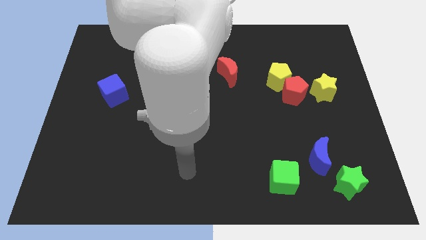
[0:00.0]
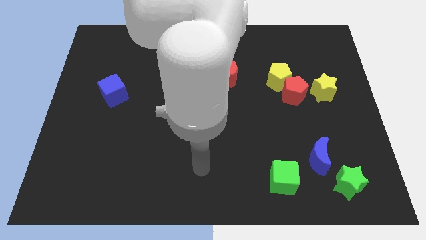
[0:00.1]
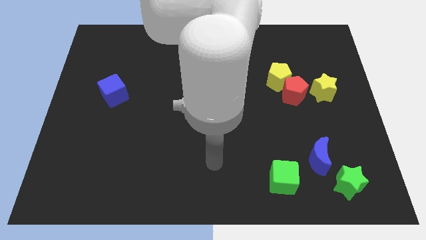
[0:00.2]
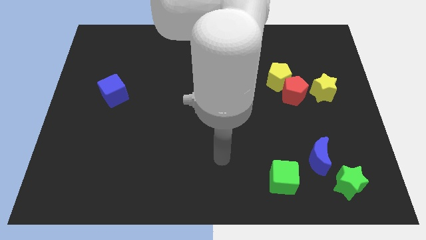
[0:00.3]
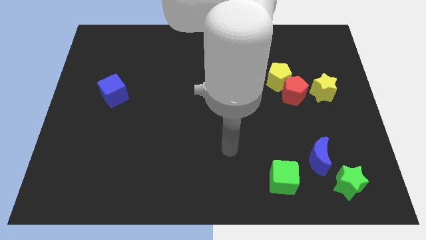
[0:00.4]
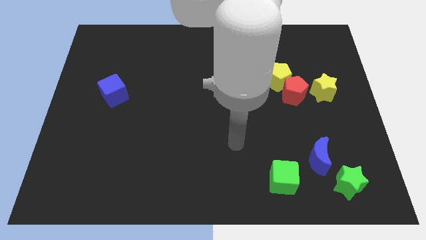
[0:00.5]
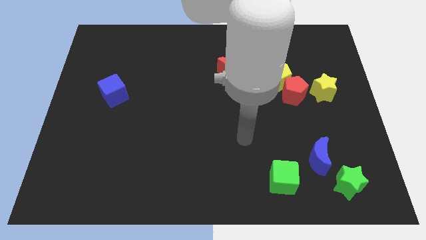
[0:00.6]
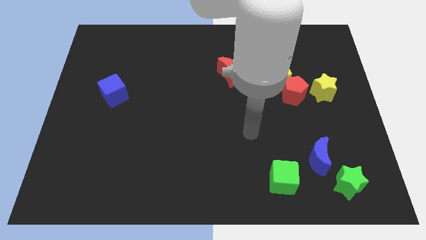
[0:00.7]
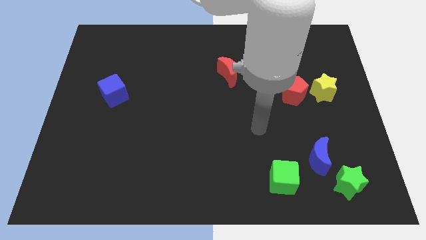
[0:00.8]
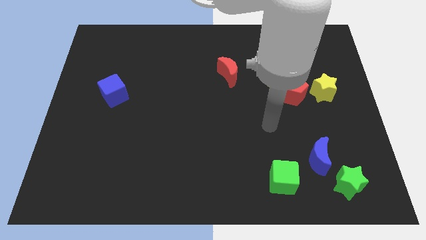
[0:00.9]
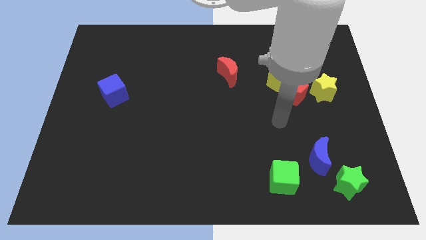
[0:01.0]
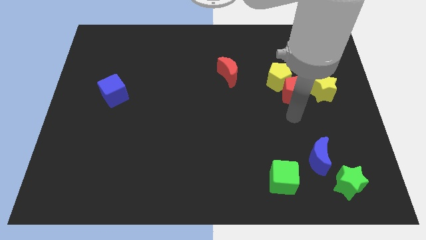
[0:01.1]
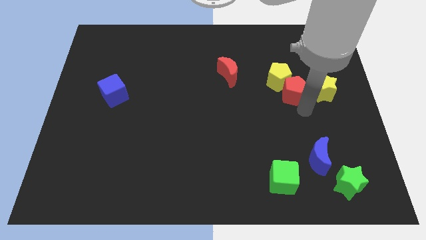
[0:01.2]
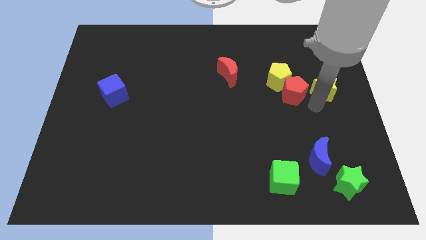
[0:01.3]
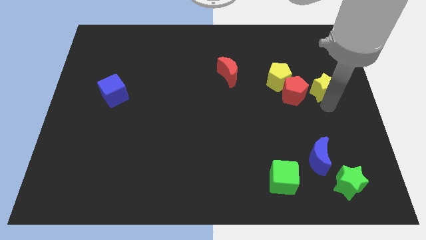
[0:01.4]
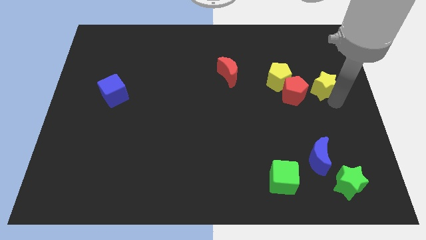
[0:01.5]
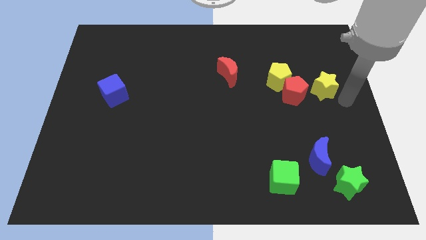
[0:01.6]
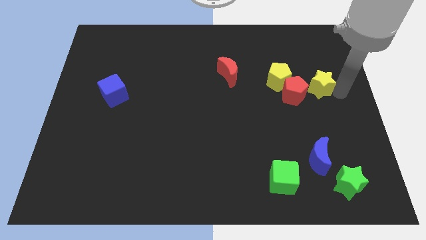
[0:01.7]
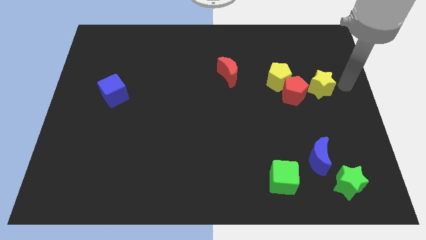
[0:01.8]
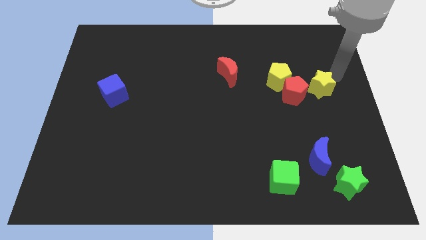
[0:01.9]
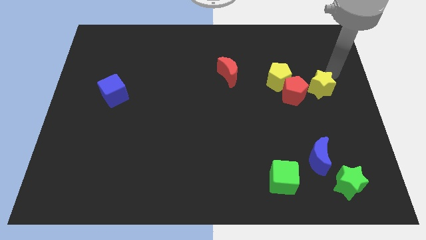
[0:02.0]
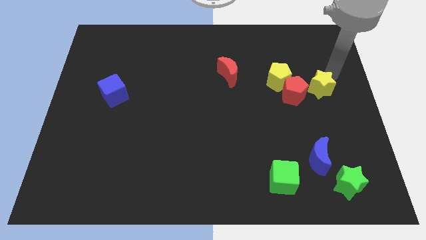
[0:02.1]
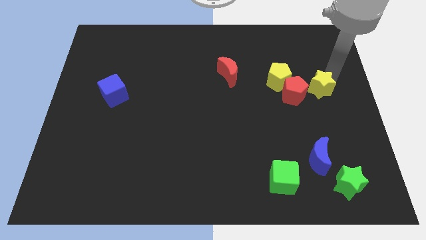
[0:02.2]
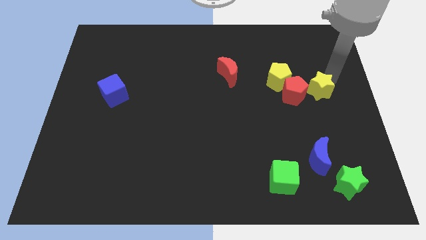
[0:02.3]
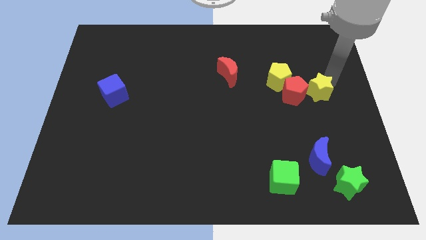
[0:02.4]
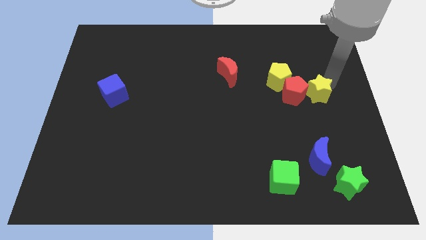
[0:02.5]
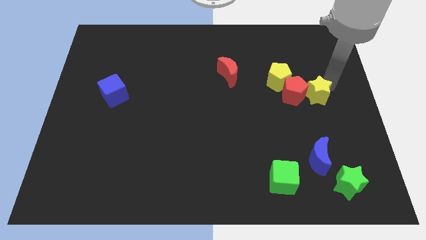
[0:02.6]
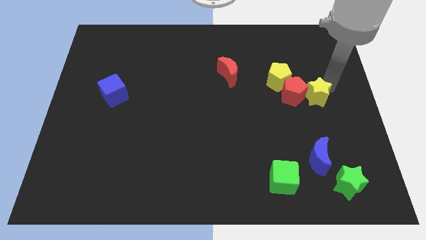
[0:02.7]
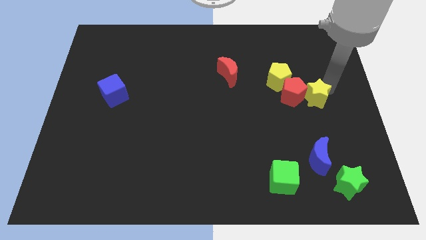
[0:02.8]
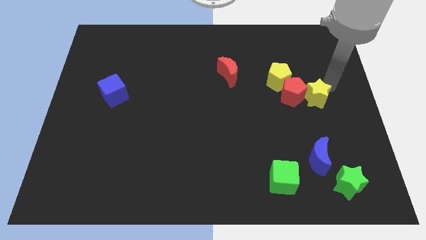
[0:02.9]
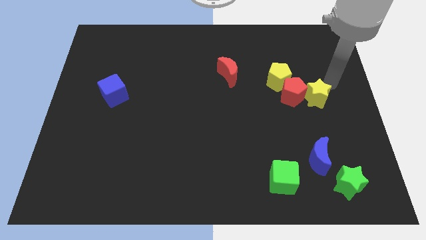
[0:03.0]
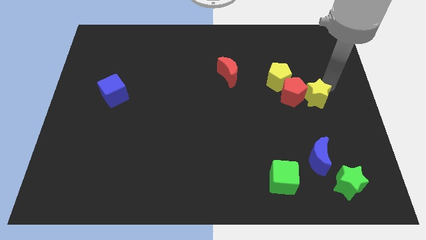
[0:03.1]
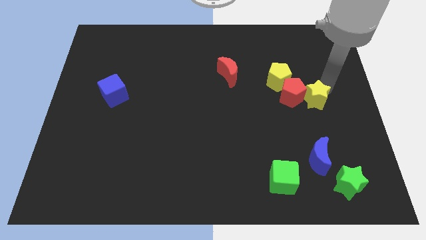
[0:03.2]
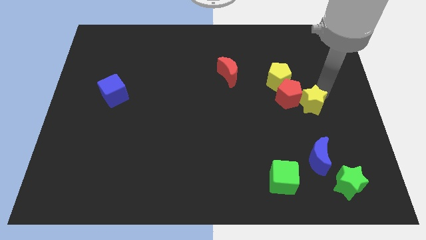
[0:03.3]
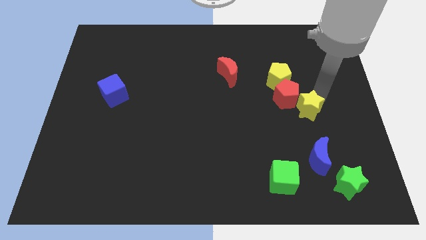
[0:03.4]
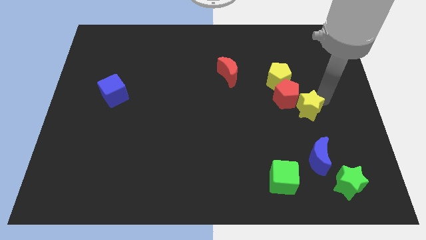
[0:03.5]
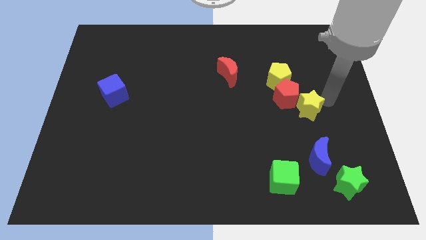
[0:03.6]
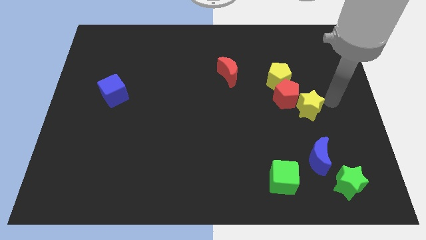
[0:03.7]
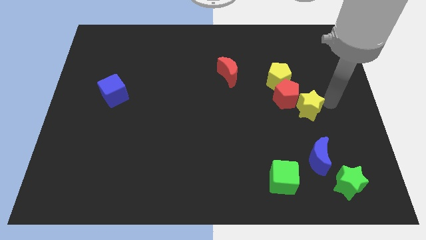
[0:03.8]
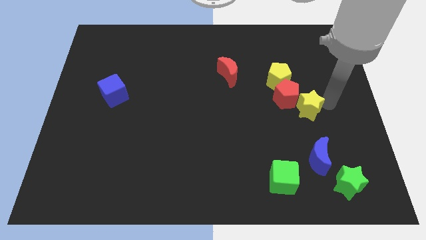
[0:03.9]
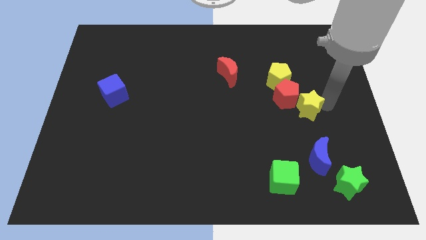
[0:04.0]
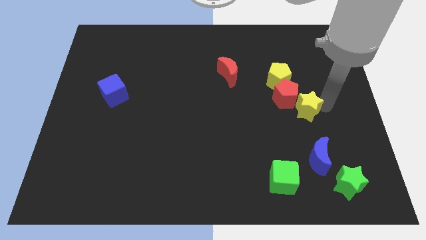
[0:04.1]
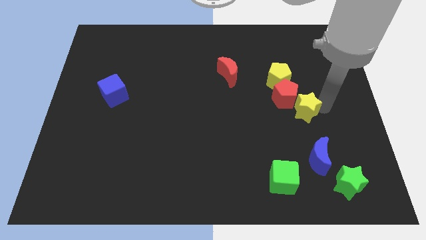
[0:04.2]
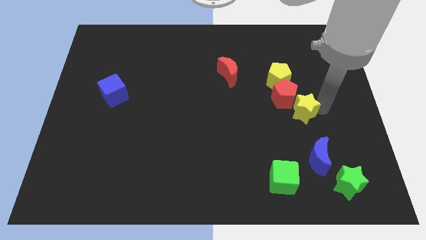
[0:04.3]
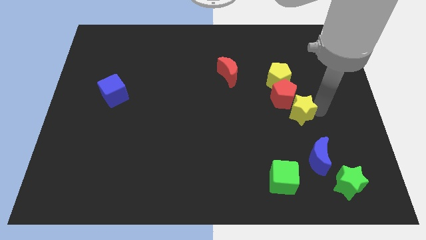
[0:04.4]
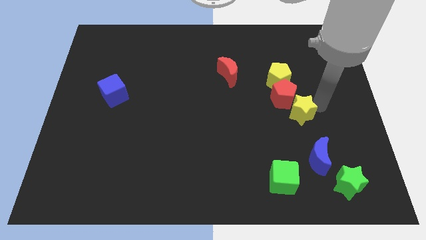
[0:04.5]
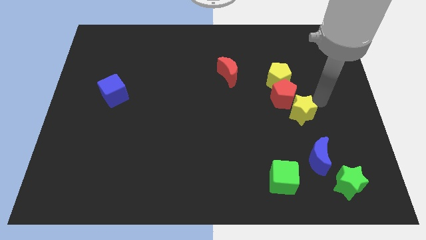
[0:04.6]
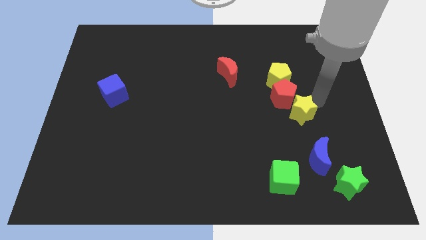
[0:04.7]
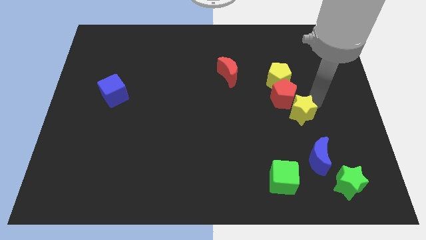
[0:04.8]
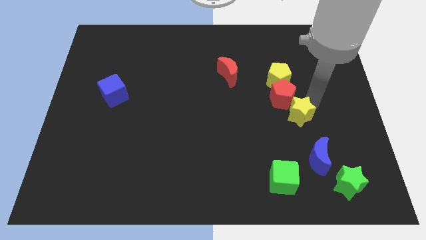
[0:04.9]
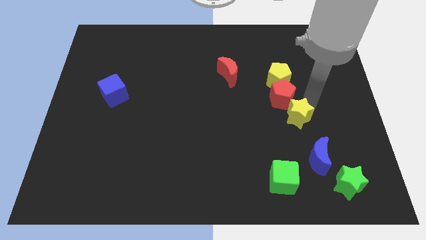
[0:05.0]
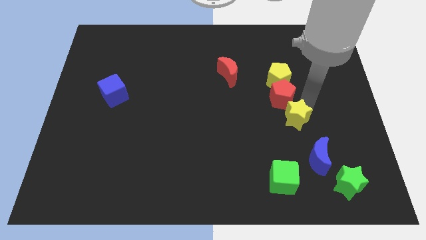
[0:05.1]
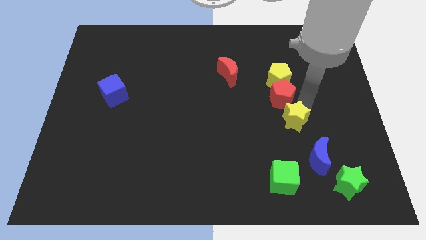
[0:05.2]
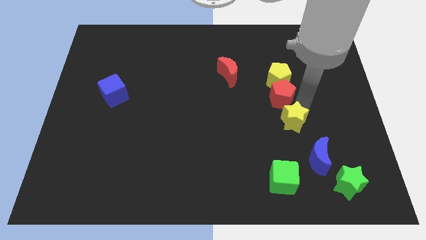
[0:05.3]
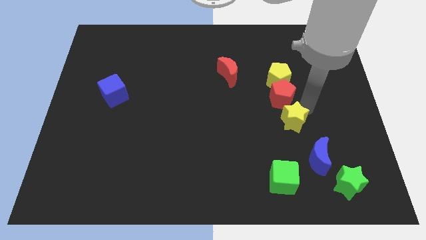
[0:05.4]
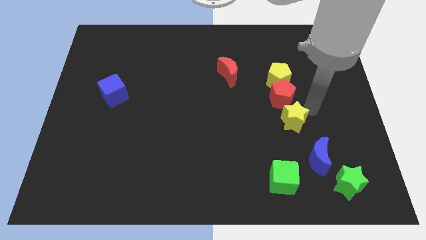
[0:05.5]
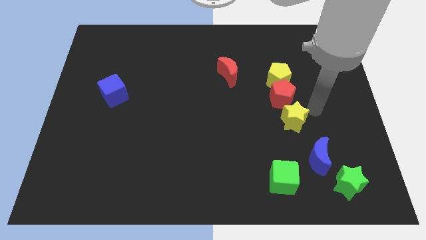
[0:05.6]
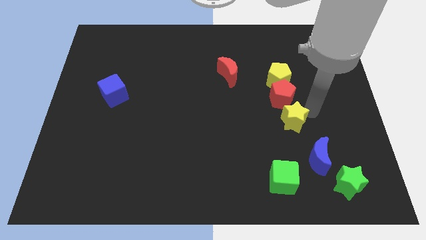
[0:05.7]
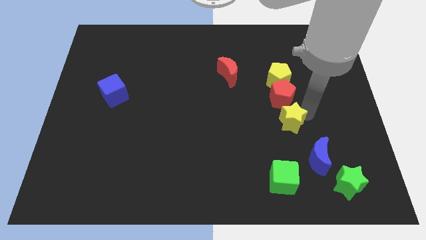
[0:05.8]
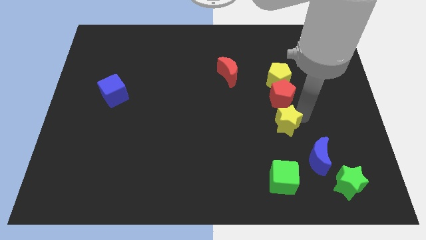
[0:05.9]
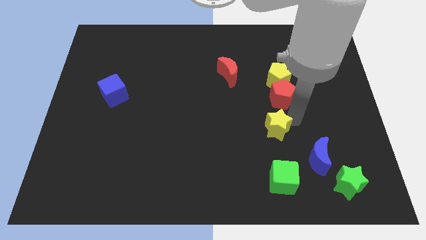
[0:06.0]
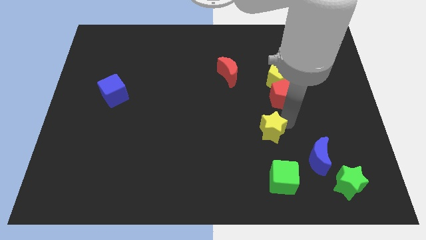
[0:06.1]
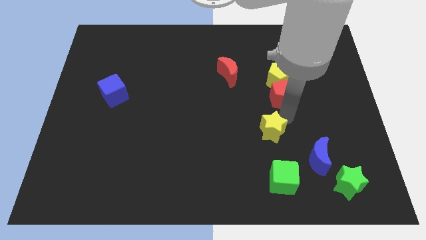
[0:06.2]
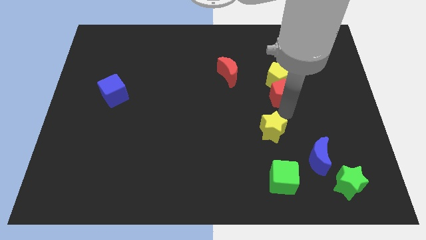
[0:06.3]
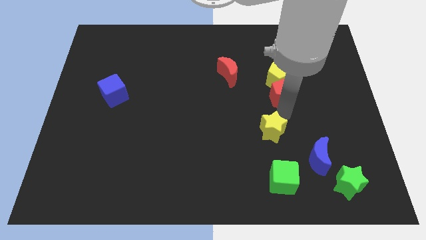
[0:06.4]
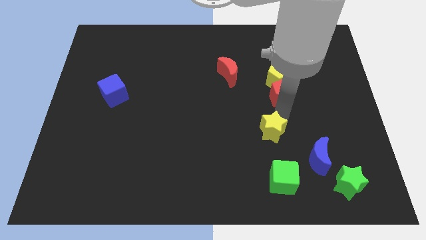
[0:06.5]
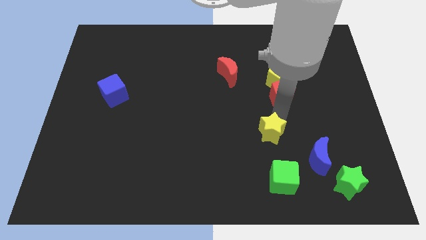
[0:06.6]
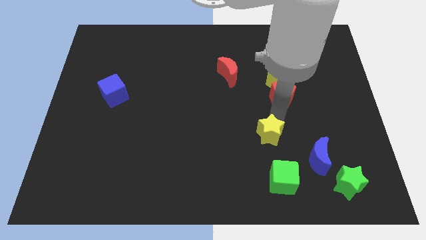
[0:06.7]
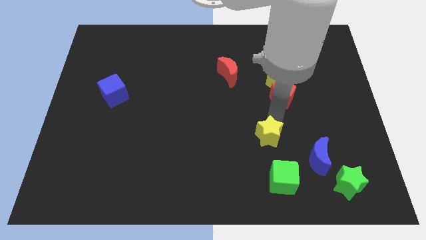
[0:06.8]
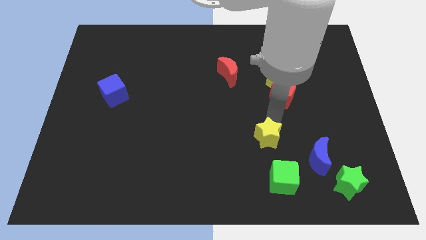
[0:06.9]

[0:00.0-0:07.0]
push the yellow star down and then to the left

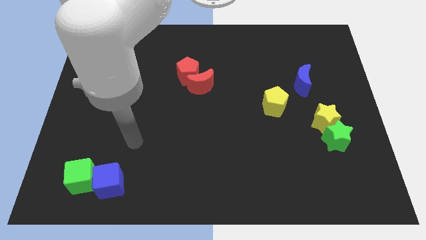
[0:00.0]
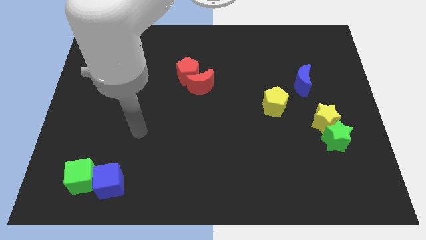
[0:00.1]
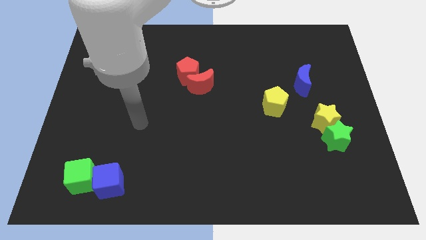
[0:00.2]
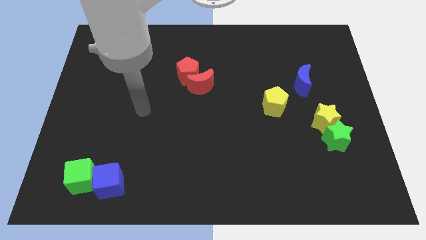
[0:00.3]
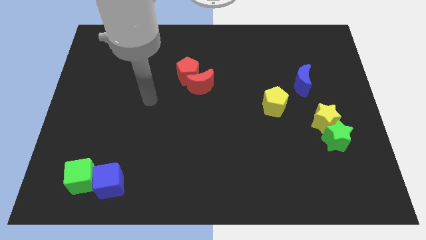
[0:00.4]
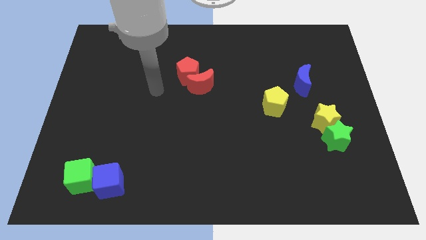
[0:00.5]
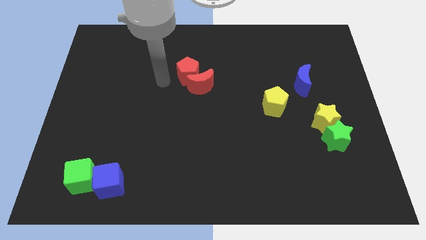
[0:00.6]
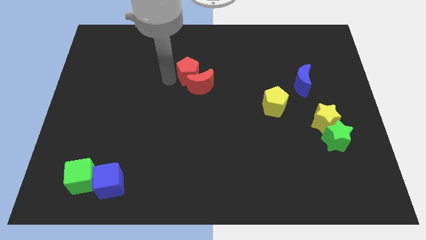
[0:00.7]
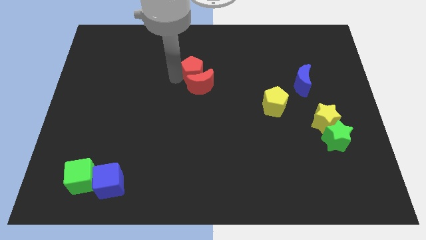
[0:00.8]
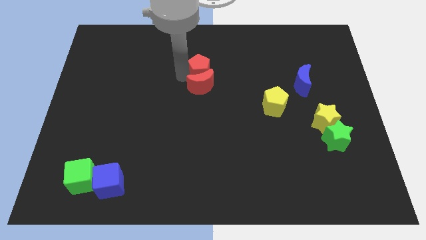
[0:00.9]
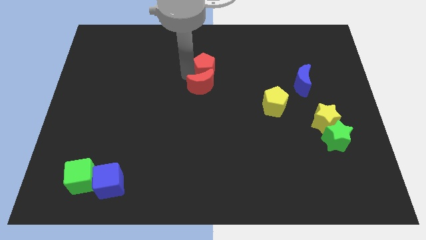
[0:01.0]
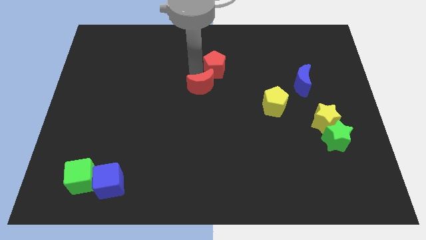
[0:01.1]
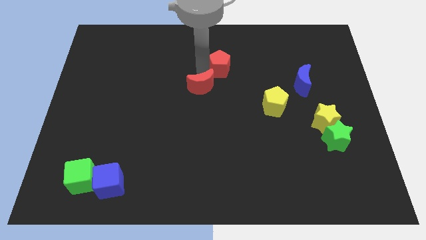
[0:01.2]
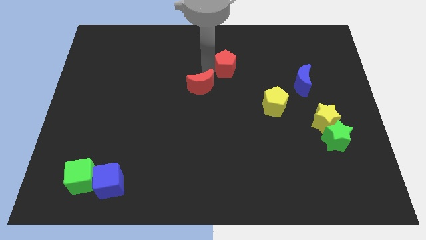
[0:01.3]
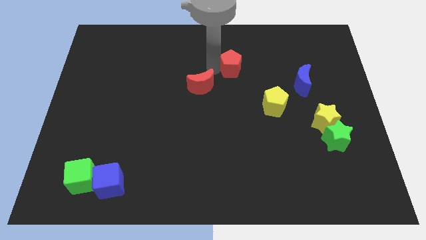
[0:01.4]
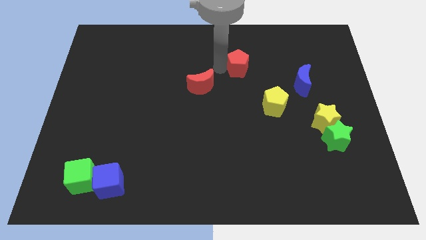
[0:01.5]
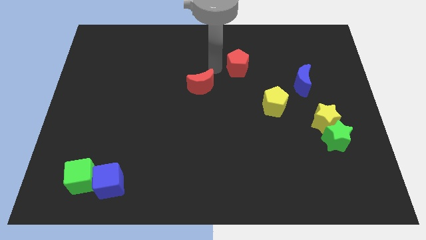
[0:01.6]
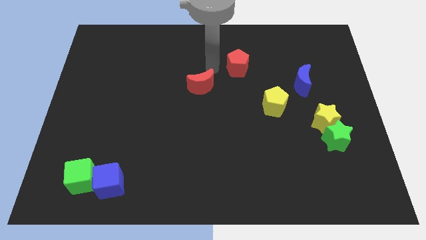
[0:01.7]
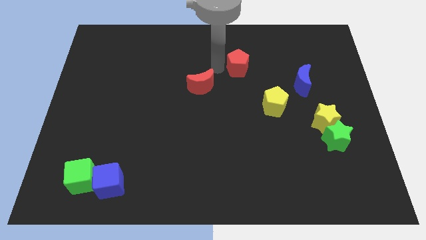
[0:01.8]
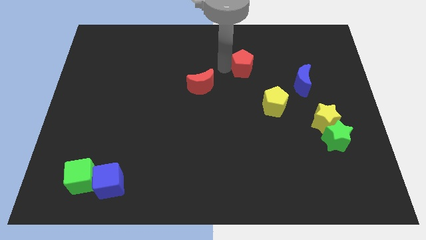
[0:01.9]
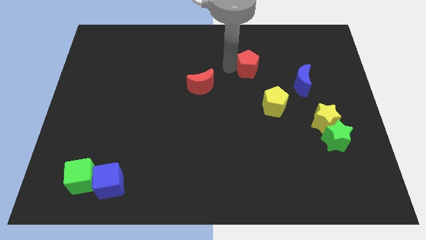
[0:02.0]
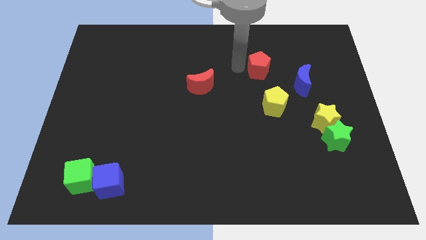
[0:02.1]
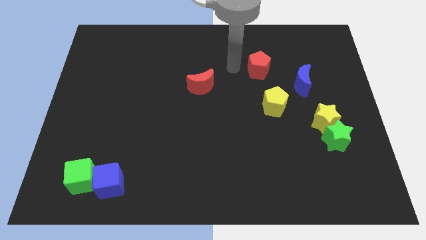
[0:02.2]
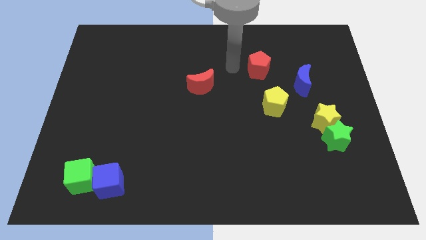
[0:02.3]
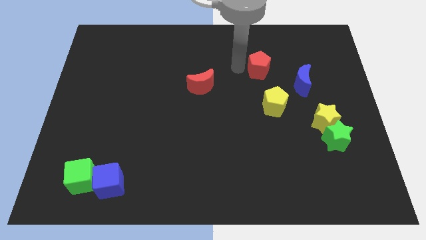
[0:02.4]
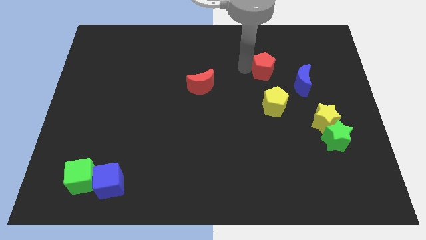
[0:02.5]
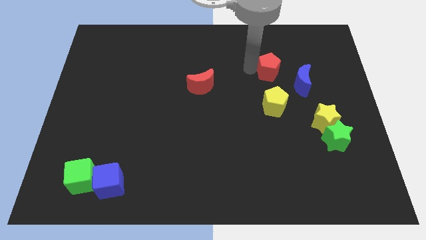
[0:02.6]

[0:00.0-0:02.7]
push the red pentagon to the right
